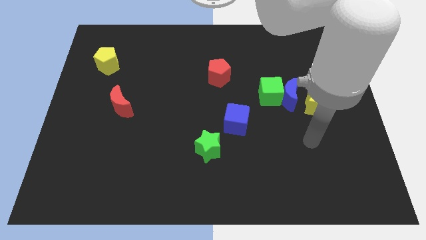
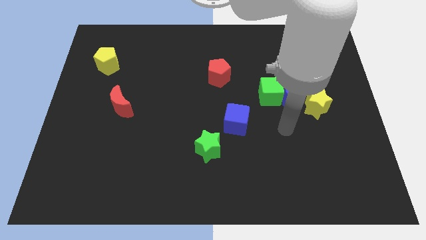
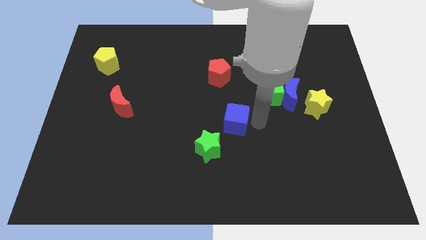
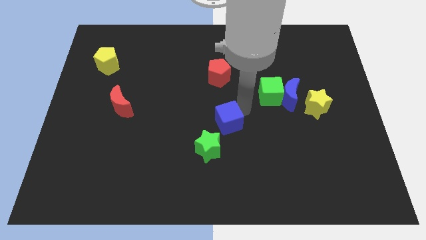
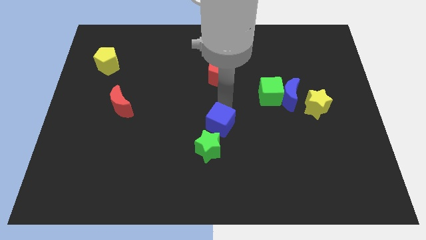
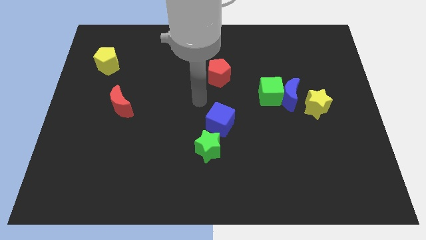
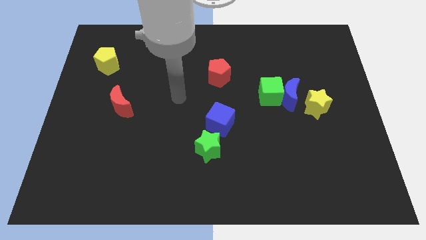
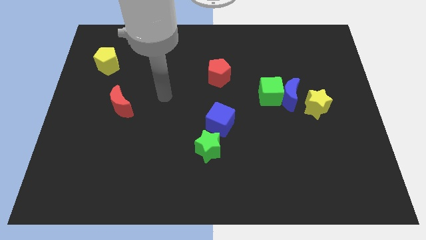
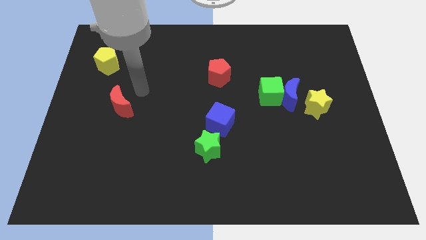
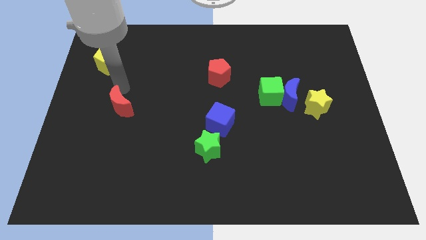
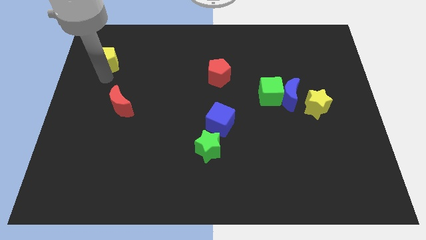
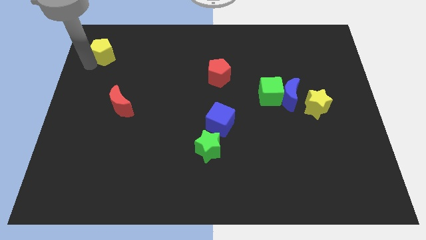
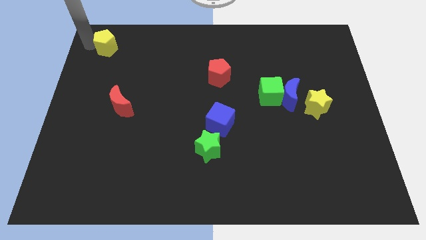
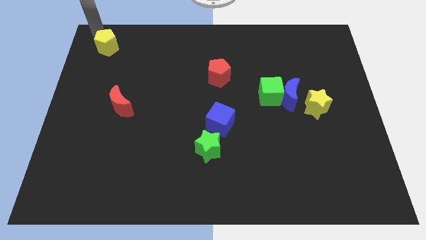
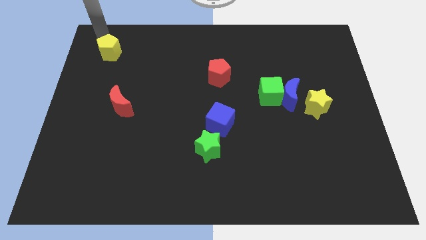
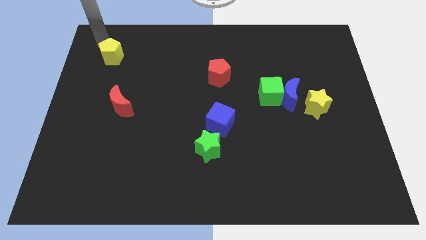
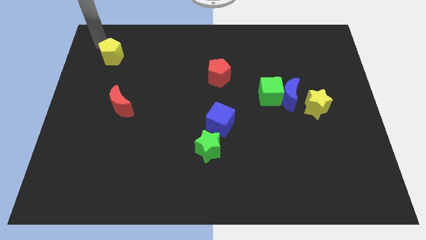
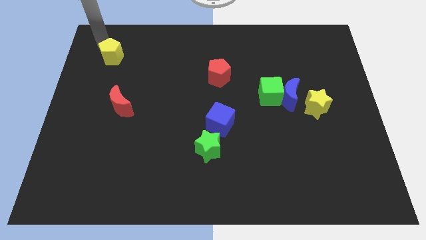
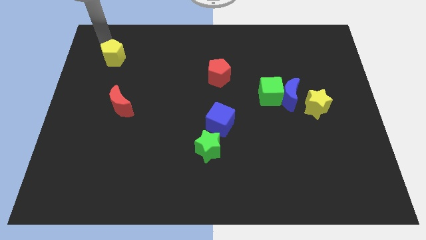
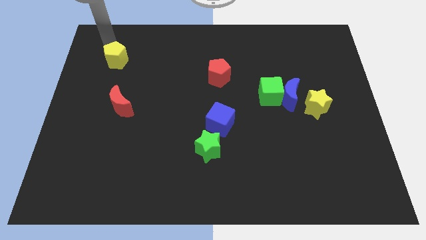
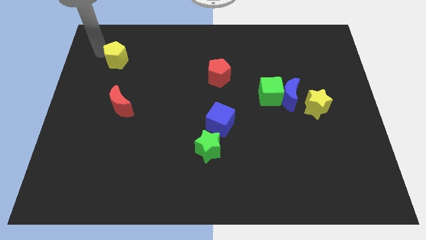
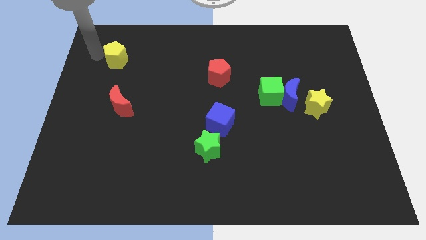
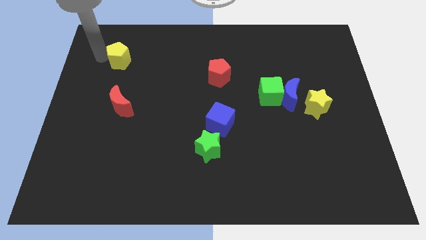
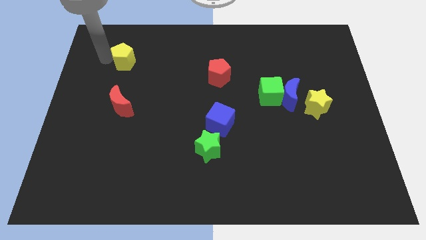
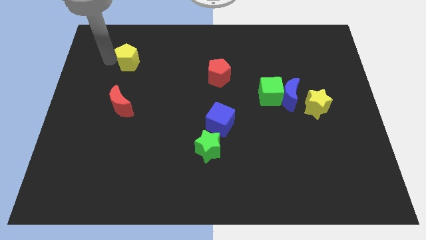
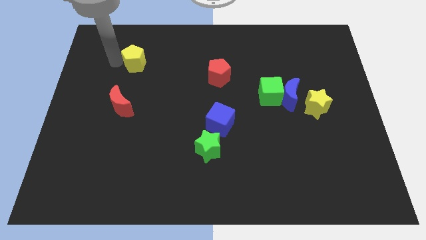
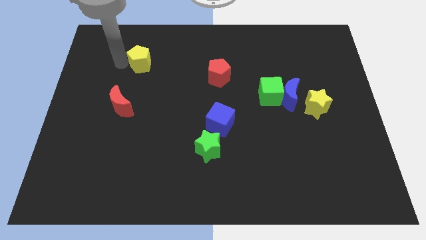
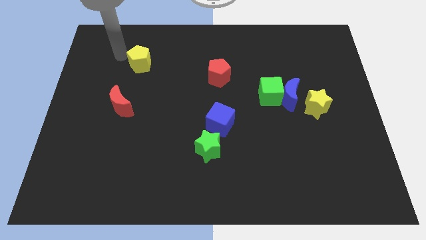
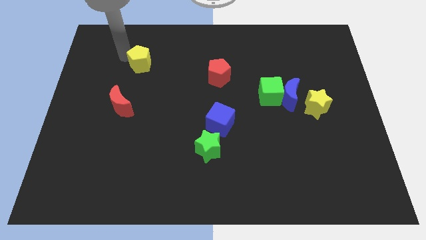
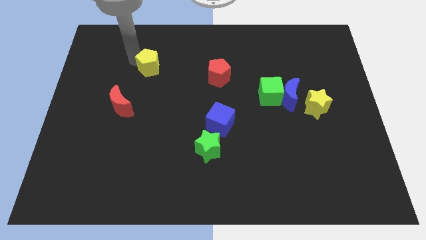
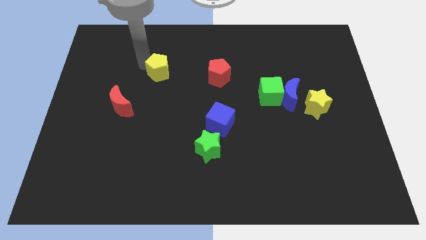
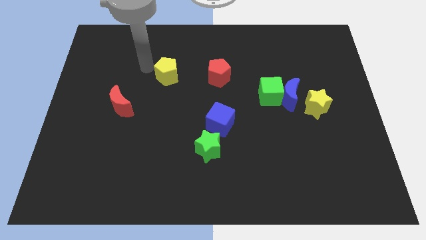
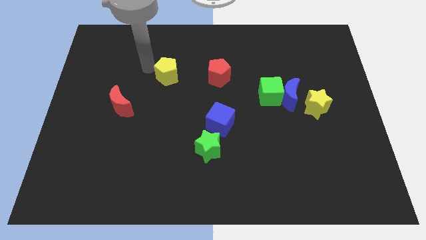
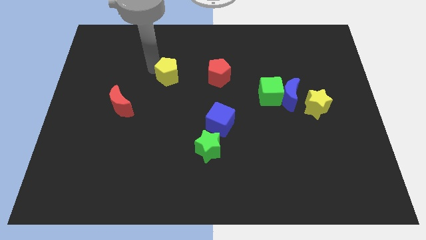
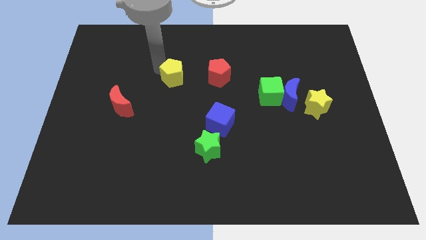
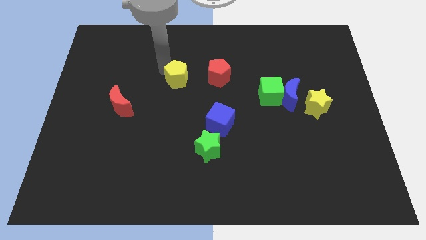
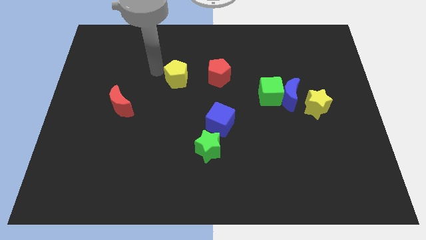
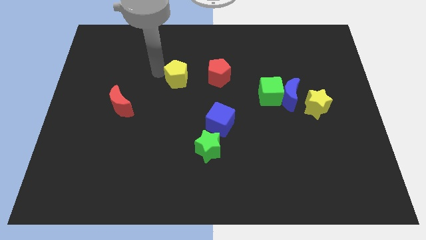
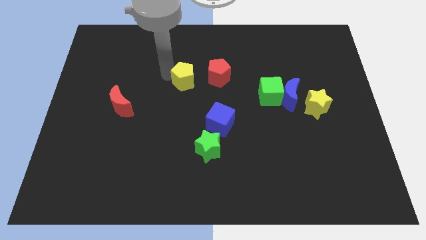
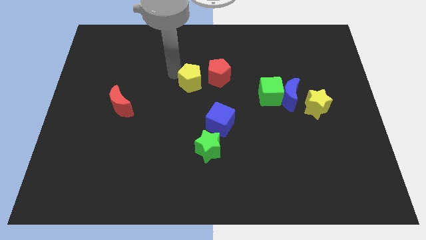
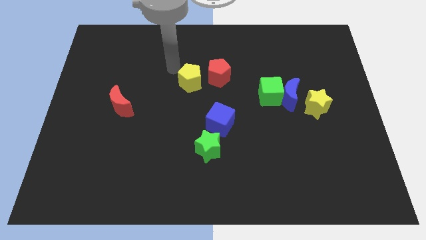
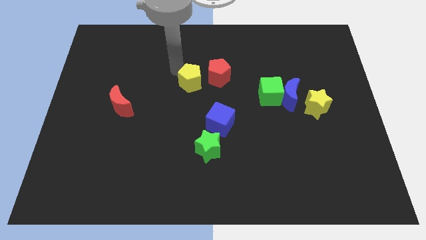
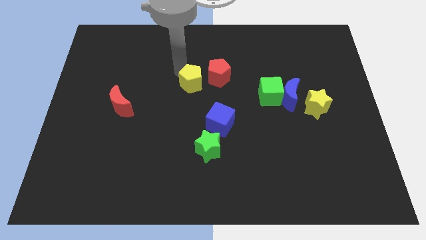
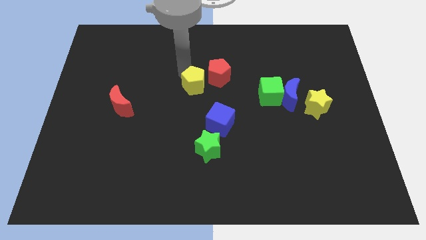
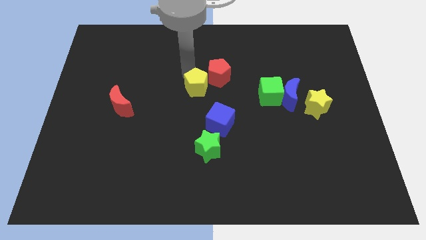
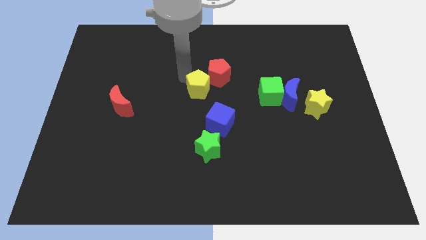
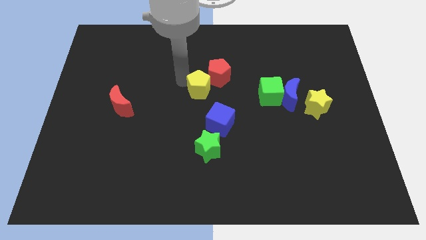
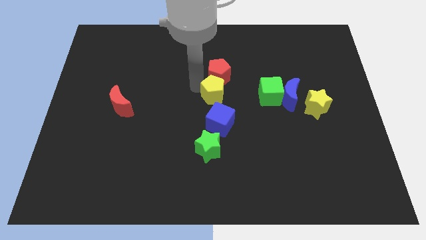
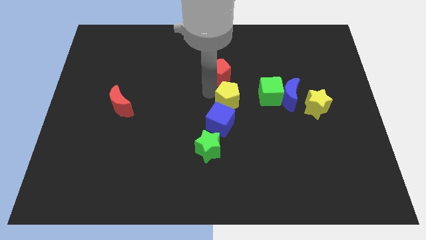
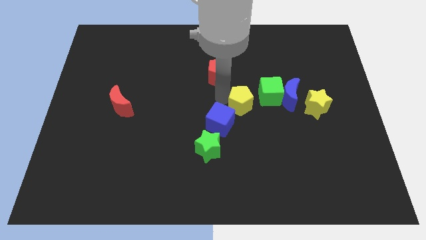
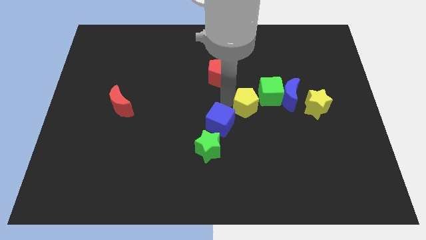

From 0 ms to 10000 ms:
put the yellow pentagon to the left side of the yellow star

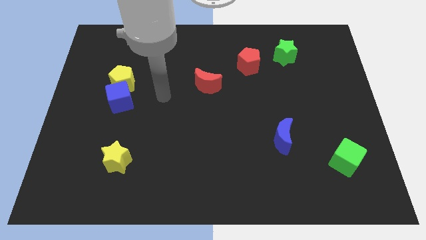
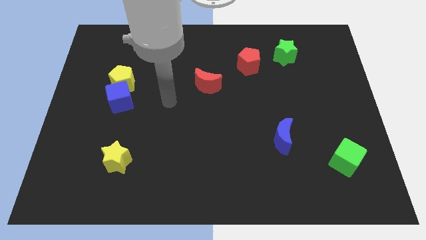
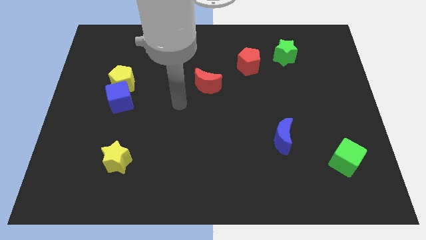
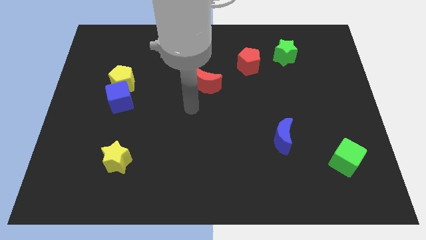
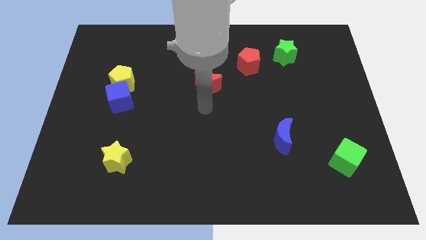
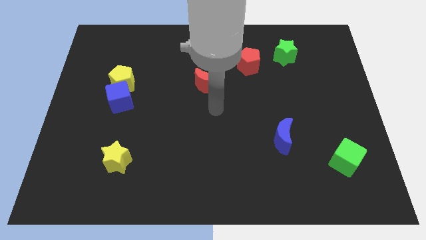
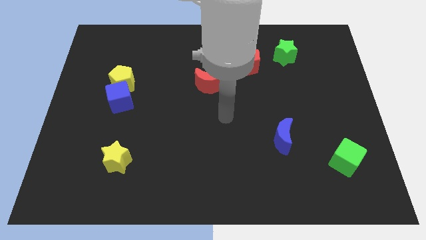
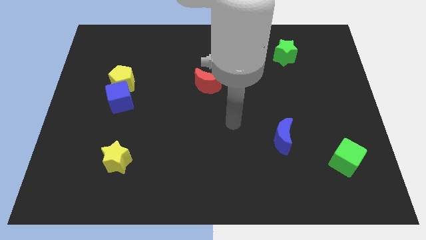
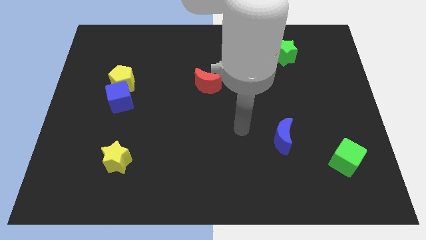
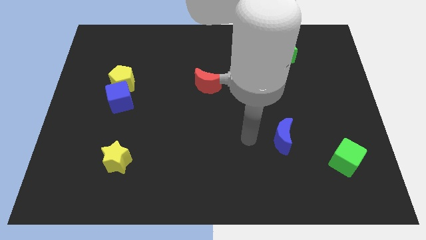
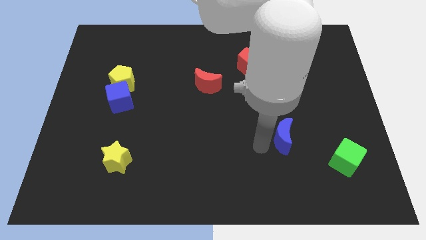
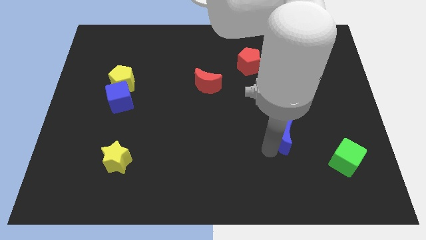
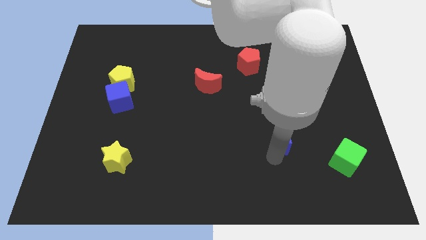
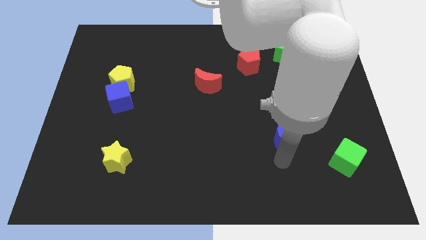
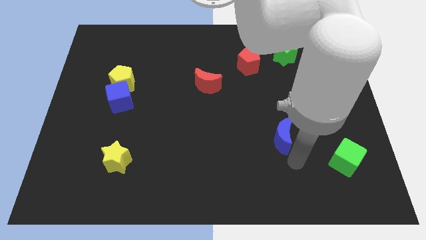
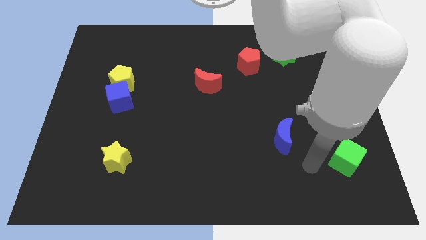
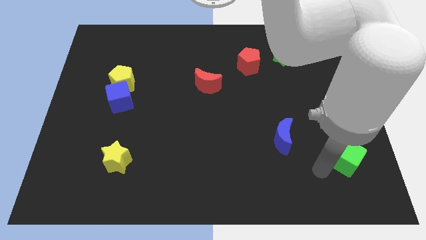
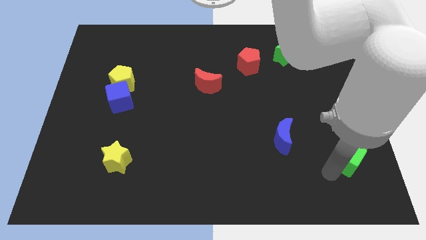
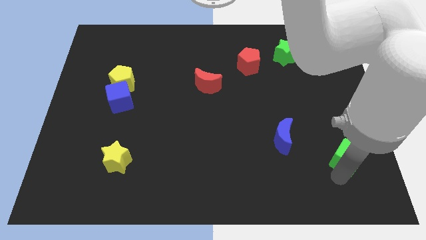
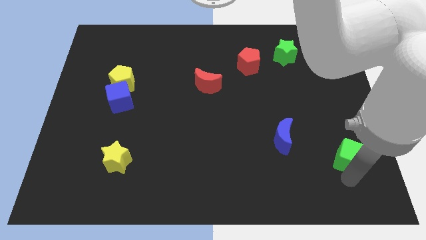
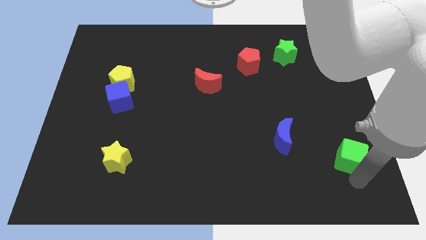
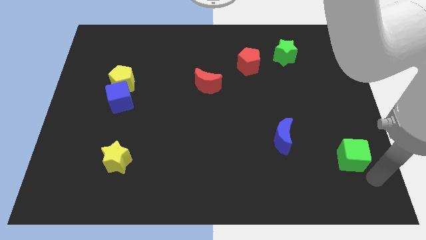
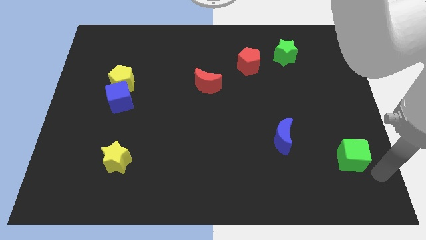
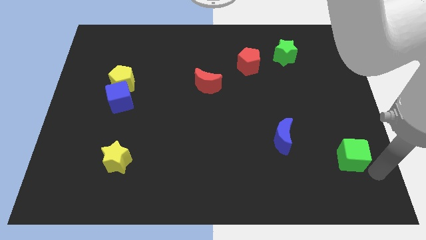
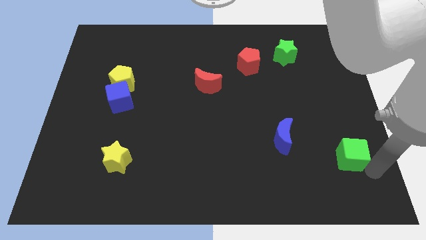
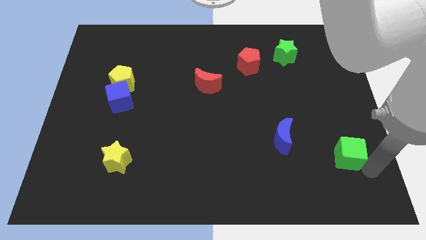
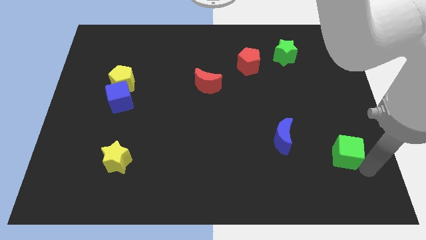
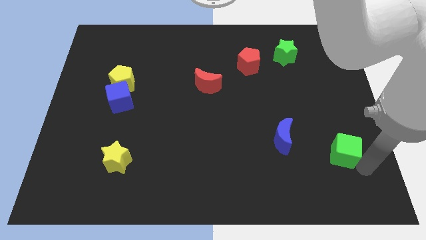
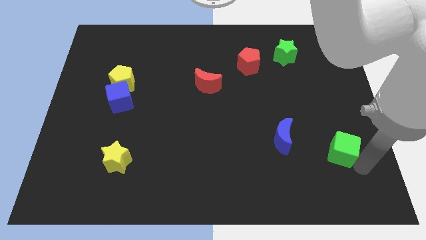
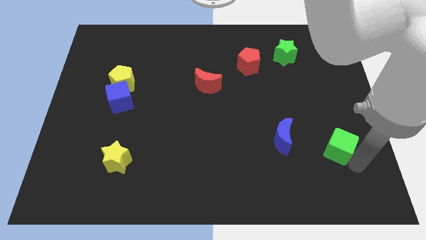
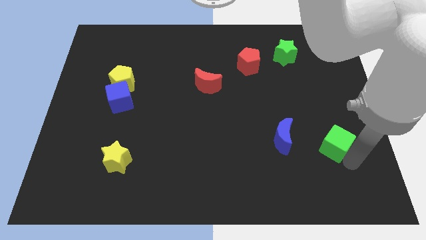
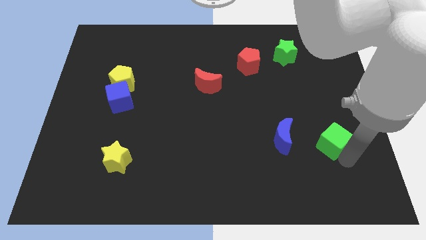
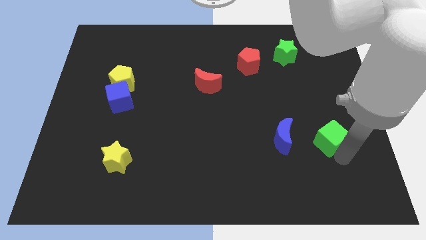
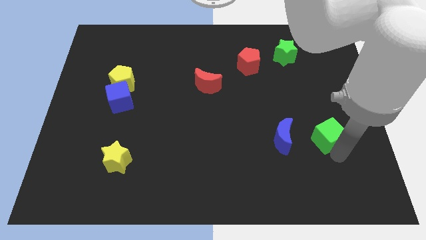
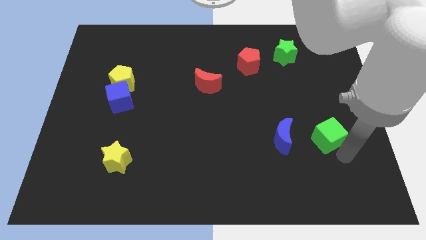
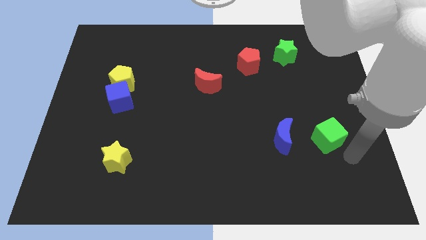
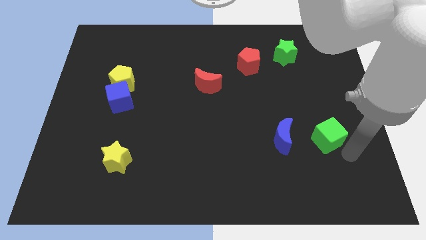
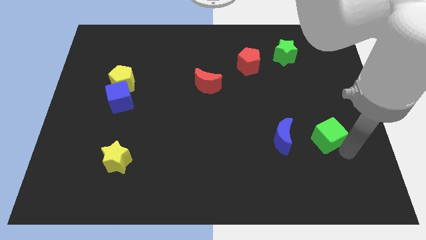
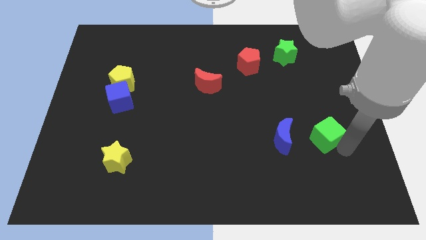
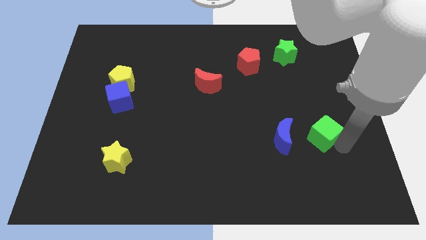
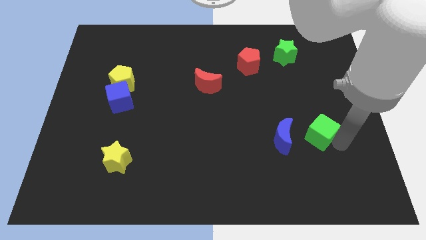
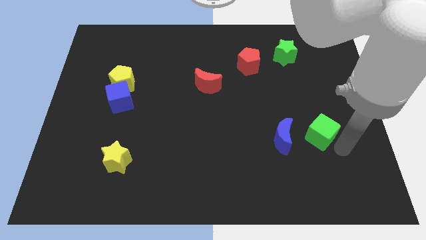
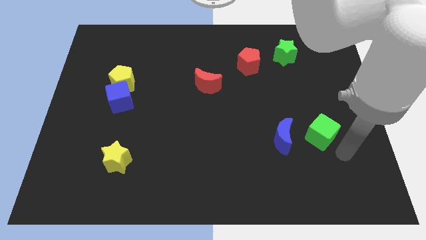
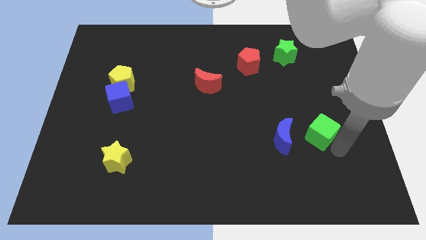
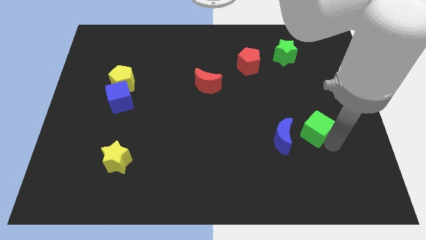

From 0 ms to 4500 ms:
slide the green cube to the top right of the blue moon
